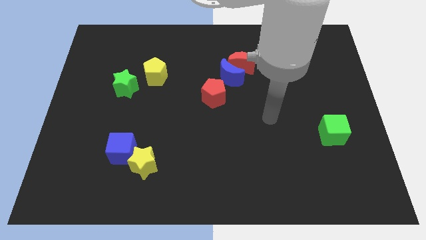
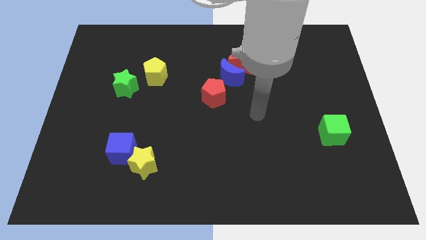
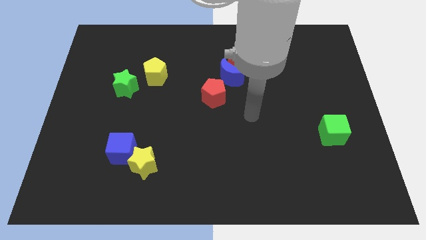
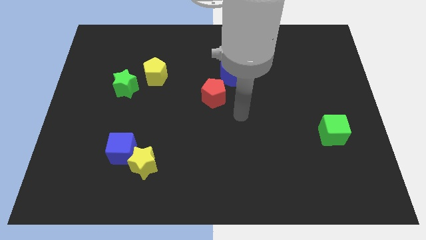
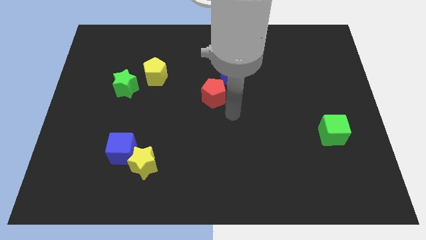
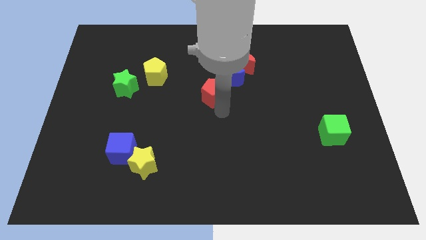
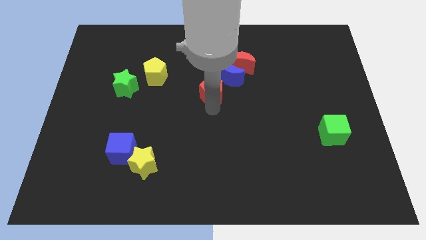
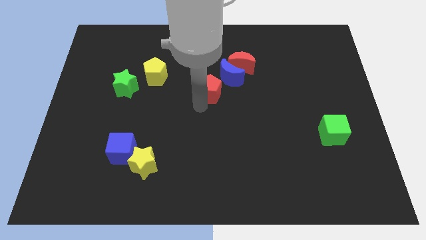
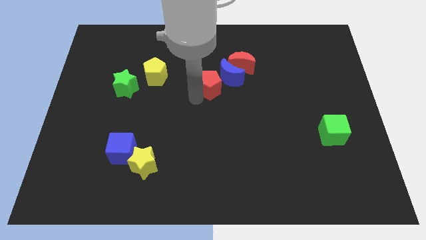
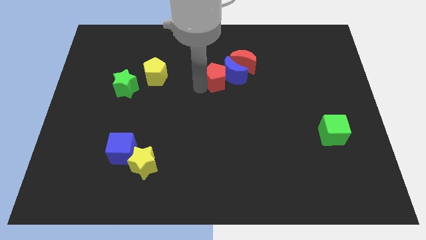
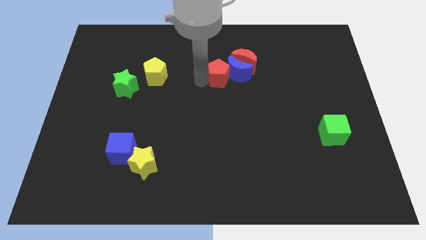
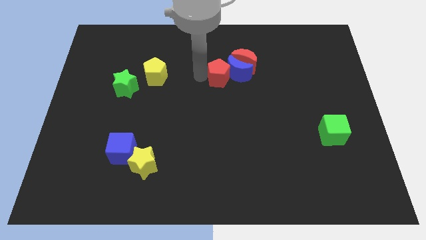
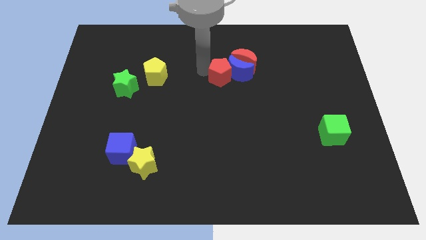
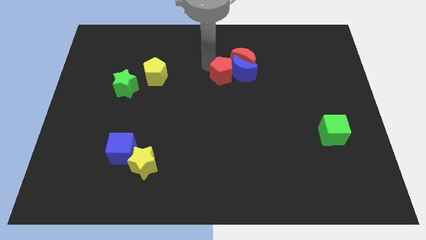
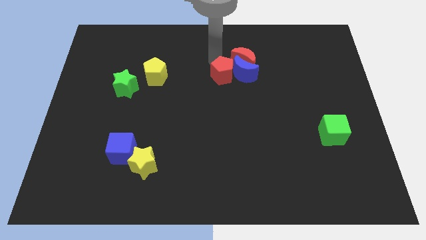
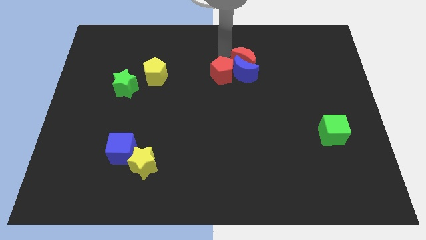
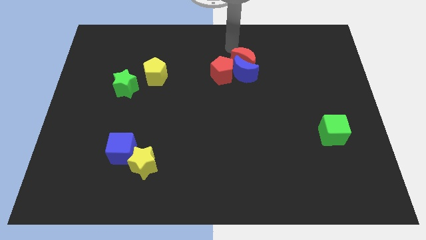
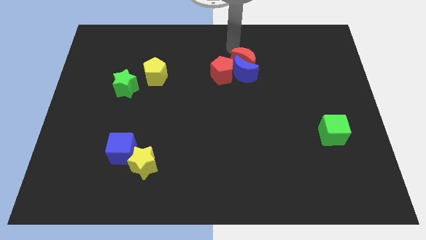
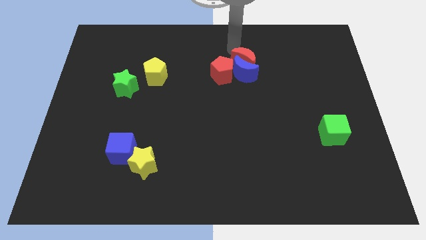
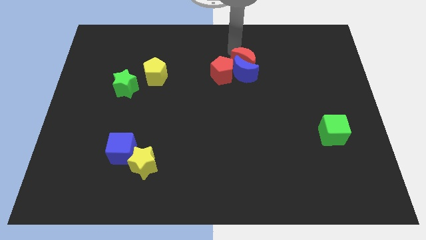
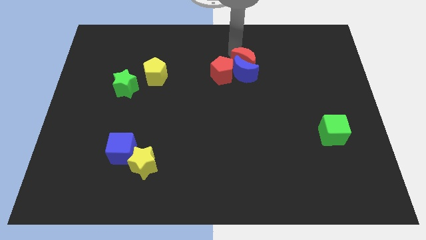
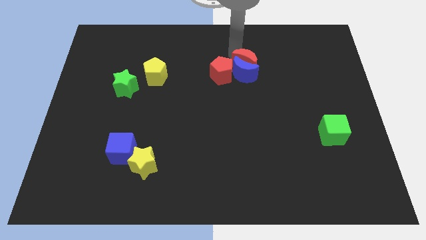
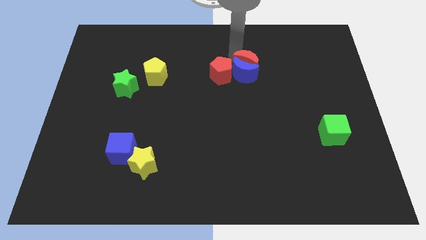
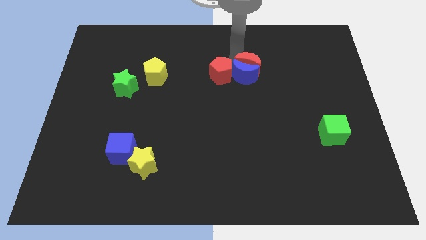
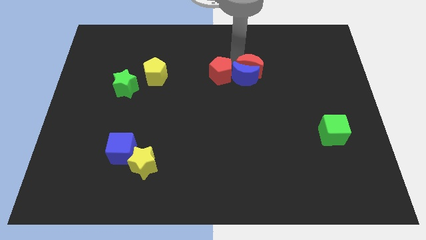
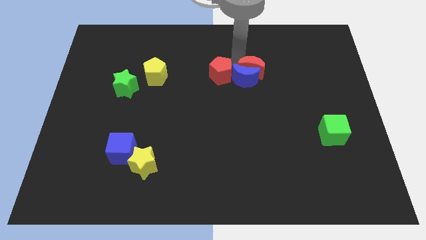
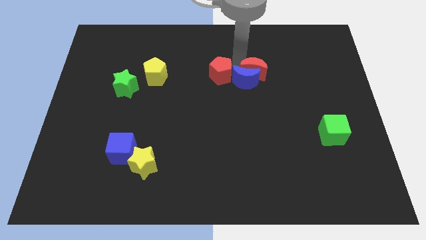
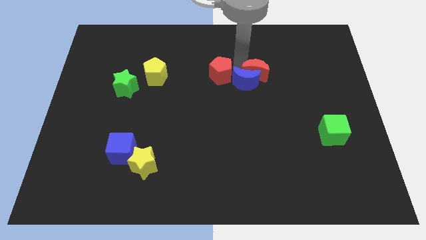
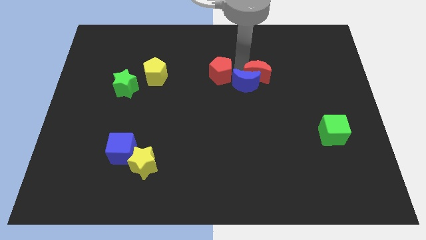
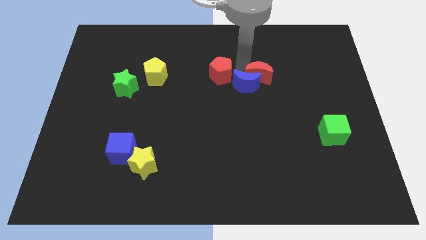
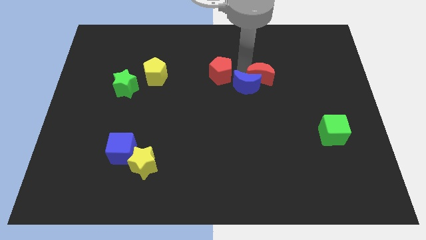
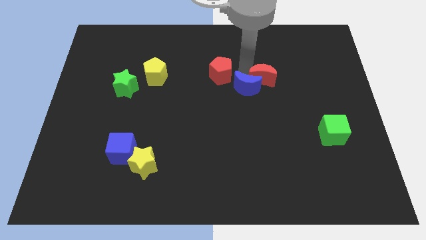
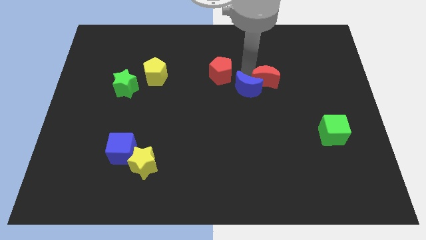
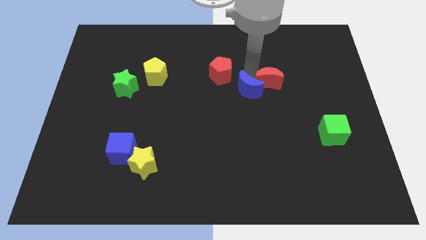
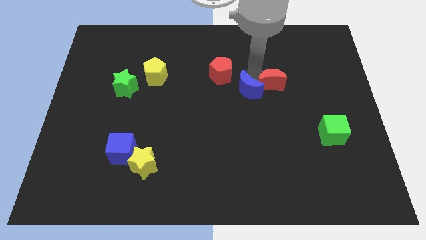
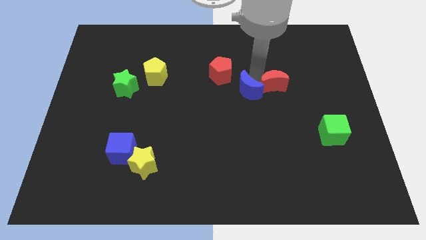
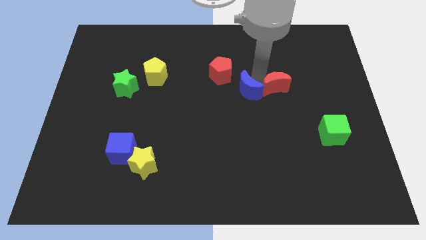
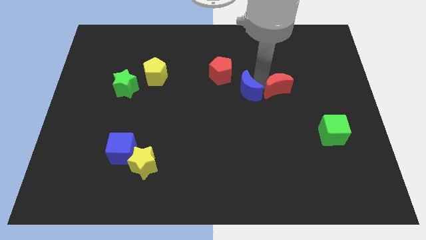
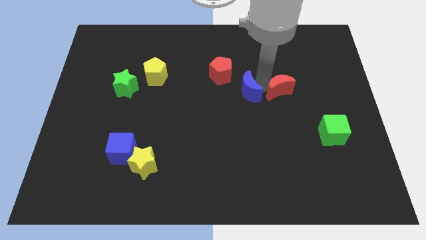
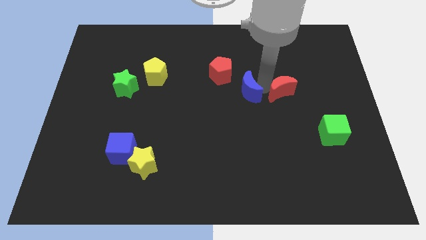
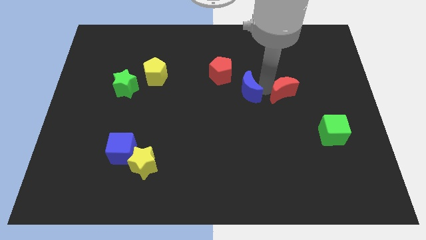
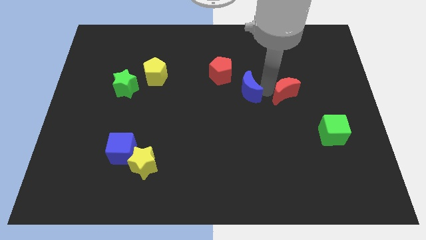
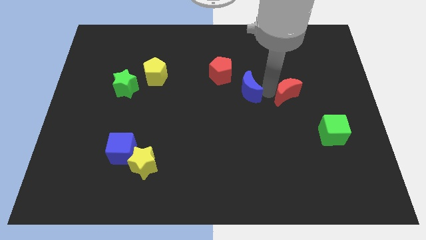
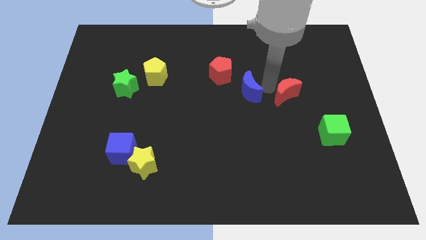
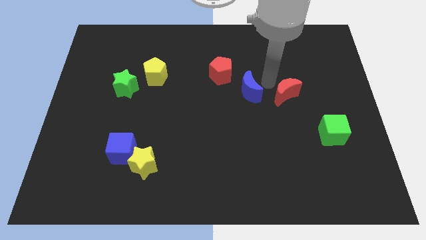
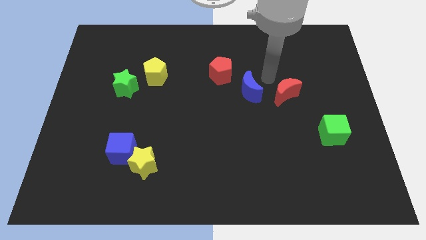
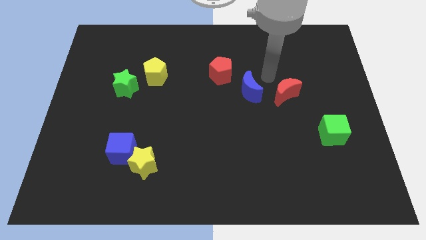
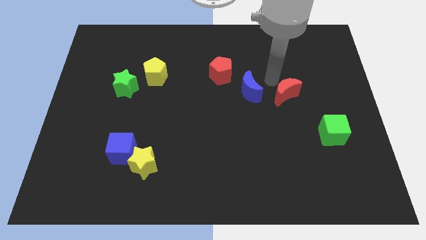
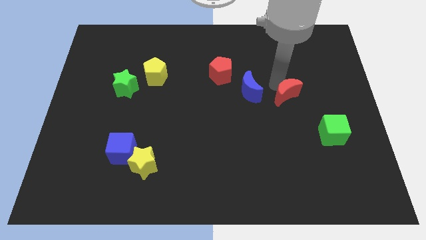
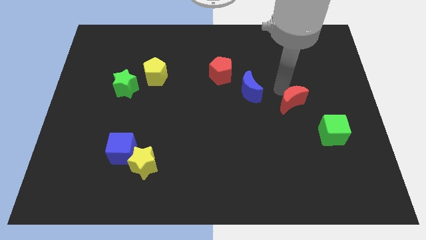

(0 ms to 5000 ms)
move the red moon to the top left side of the green cube

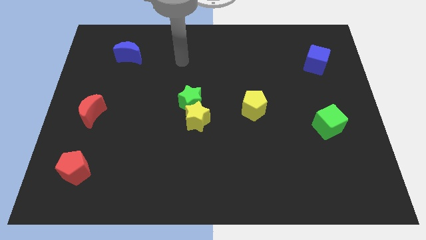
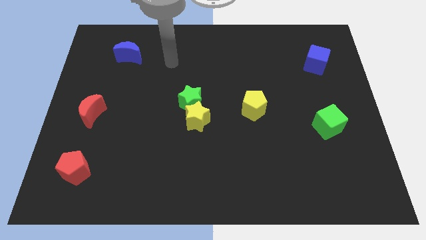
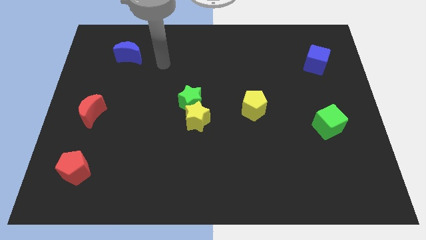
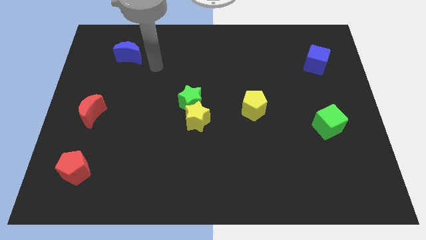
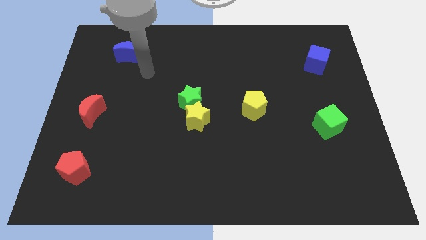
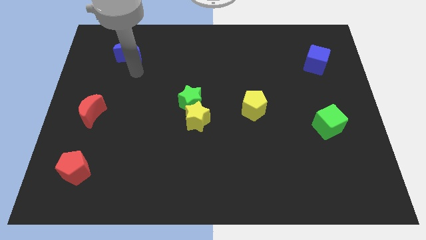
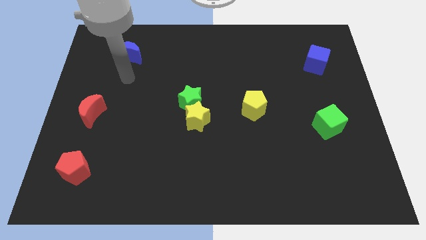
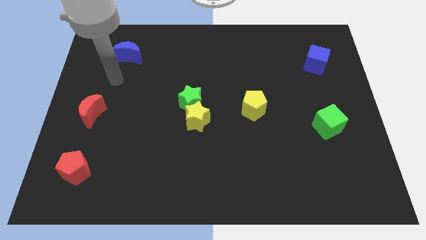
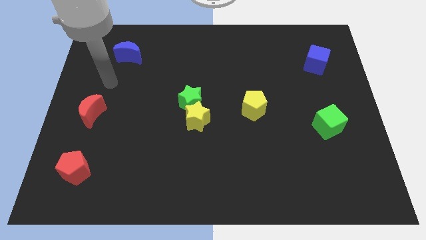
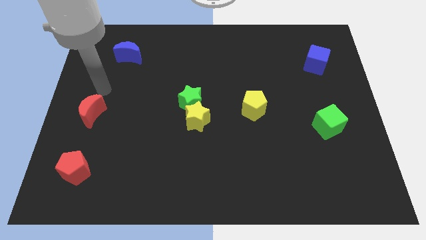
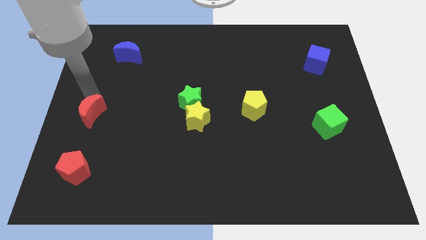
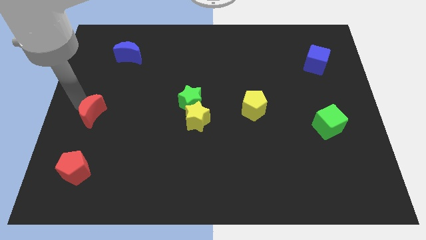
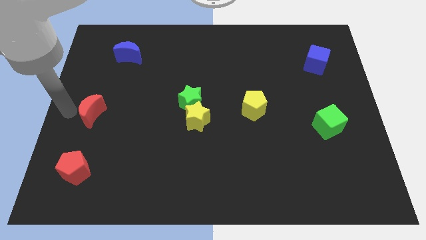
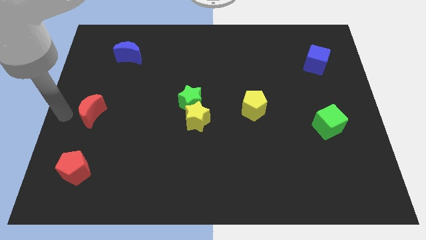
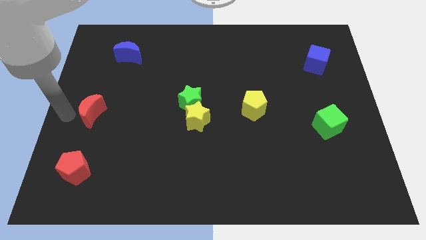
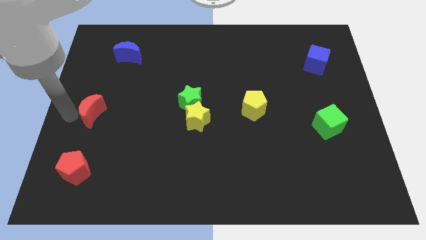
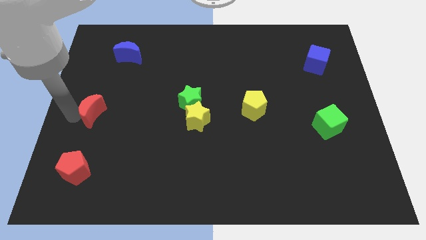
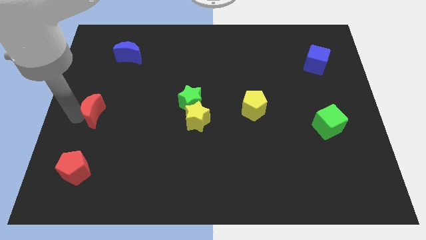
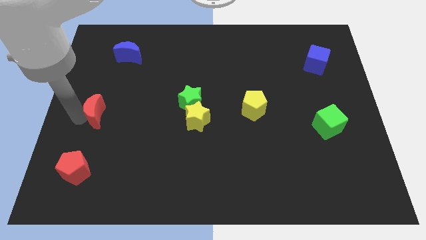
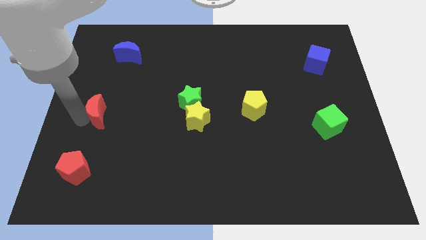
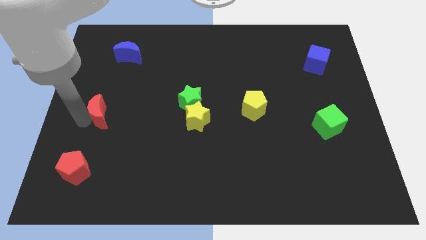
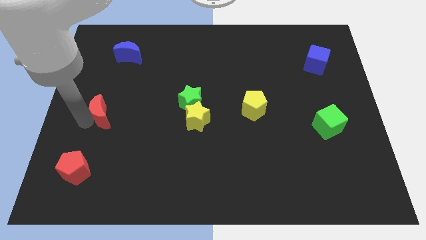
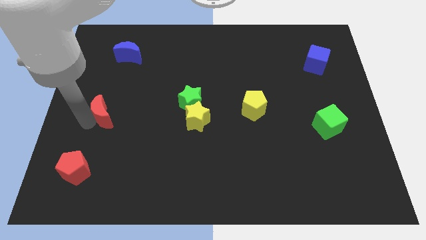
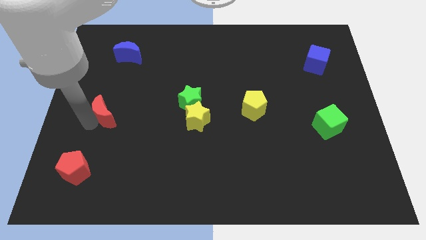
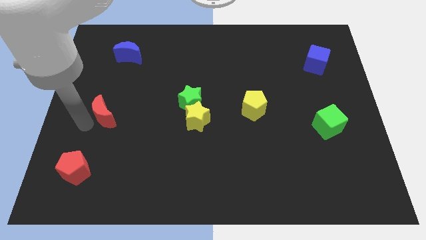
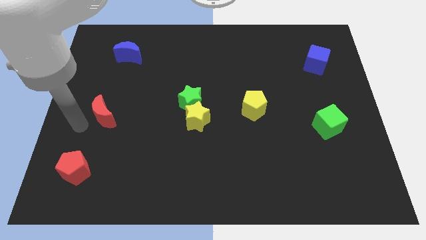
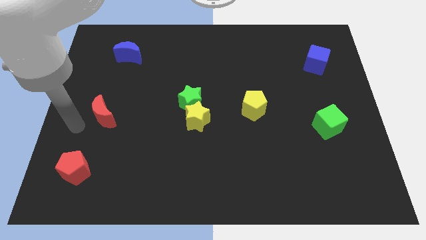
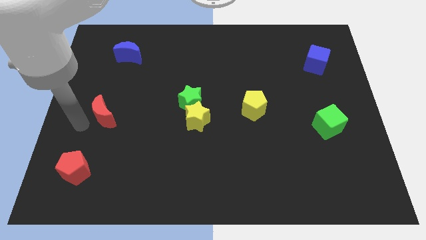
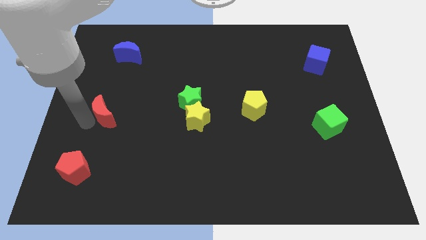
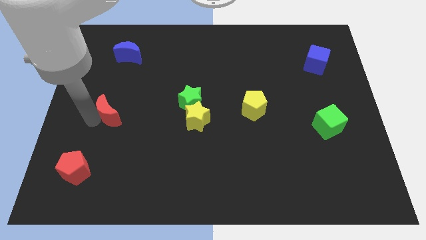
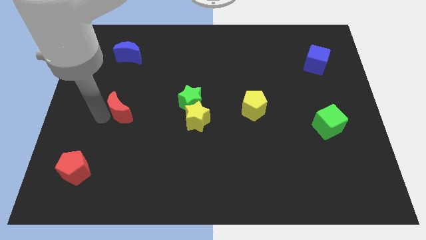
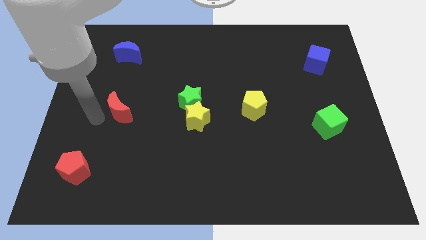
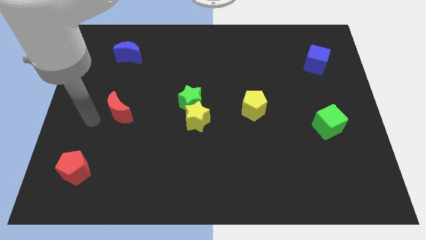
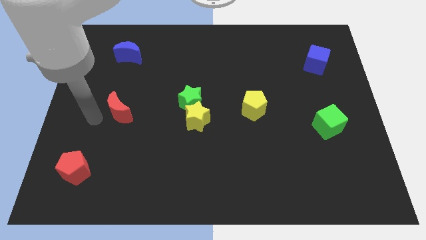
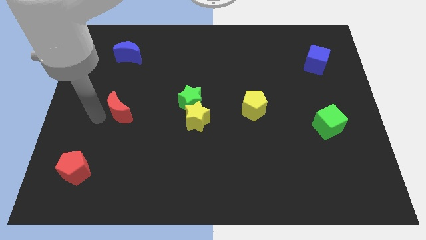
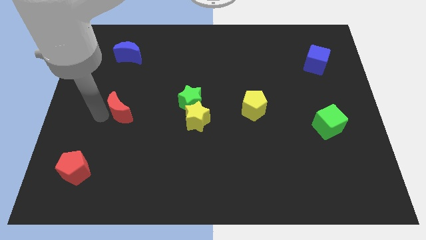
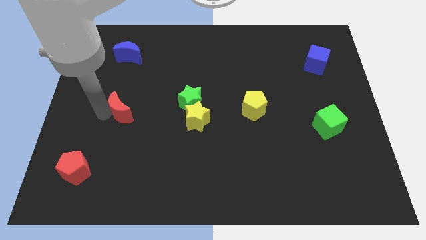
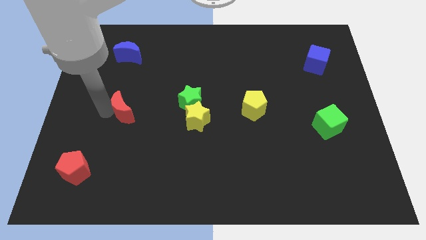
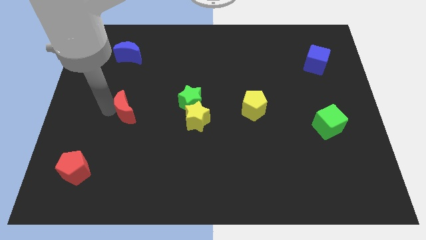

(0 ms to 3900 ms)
push the red moon left of the green star
